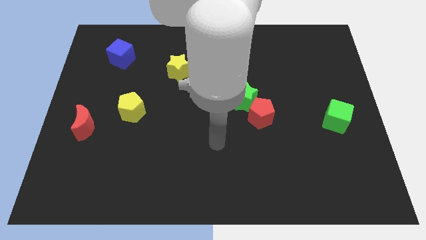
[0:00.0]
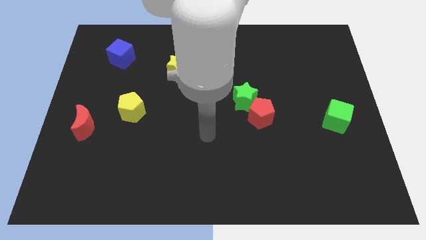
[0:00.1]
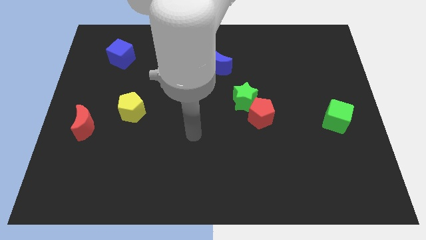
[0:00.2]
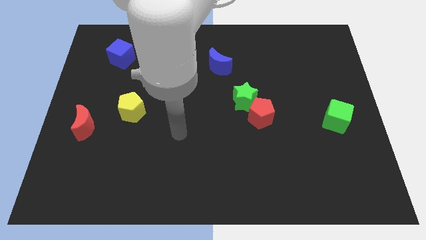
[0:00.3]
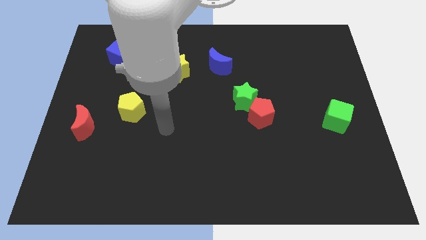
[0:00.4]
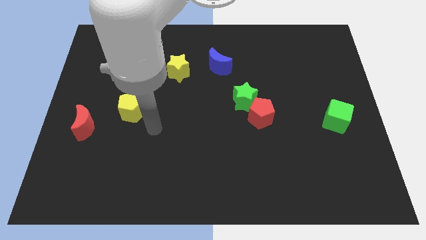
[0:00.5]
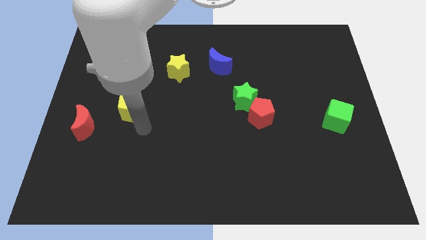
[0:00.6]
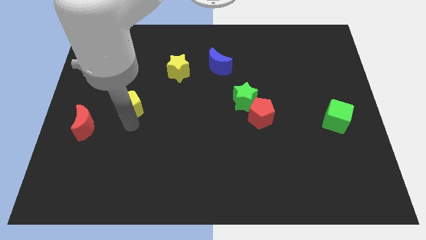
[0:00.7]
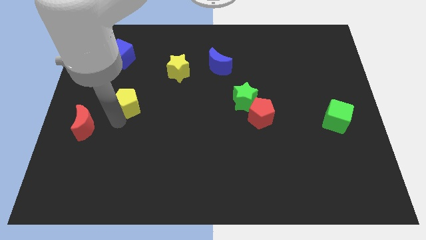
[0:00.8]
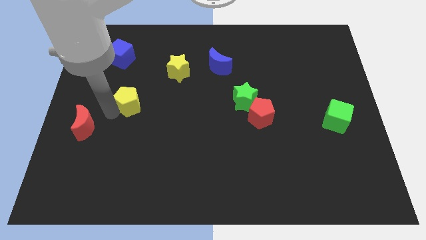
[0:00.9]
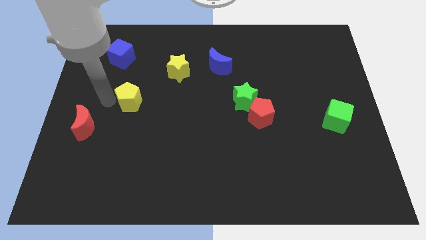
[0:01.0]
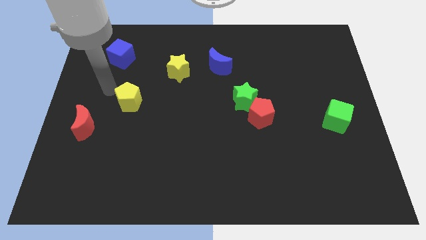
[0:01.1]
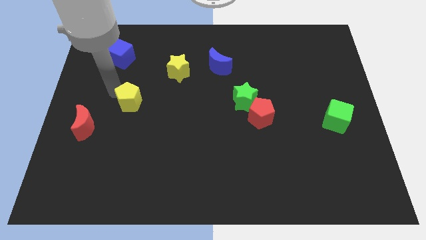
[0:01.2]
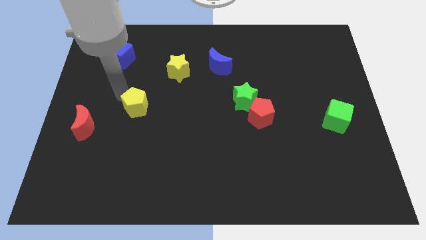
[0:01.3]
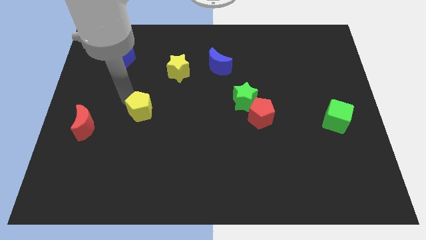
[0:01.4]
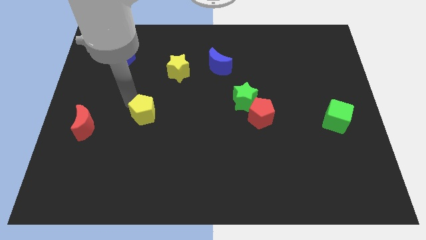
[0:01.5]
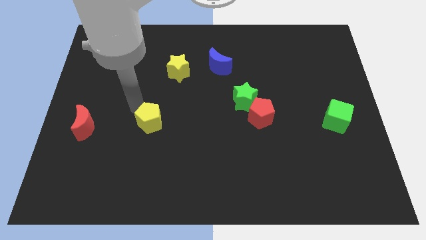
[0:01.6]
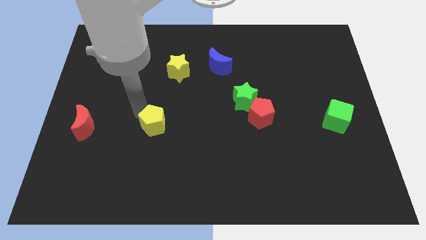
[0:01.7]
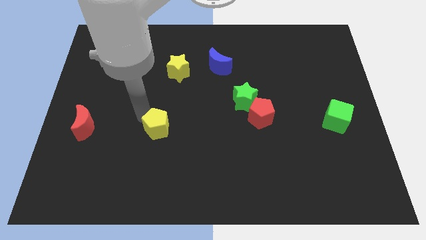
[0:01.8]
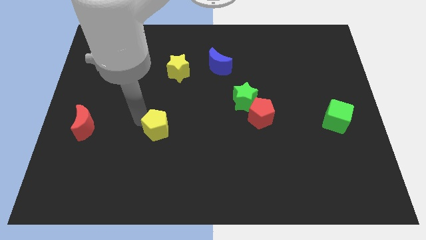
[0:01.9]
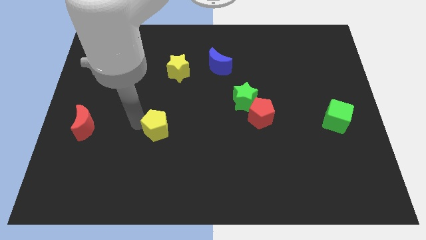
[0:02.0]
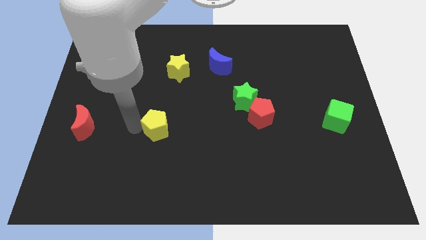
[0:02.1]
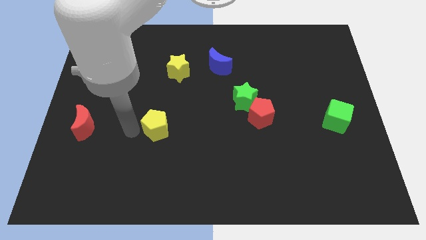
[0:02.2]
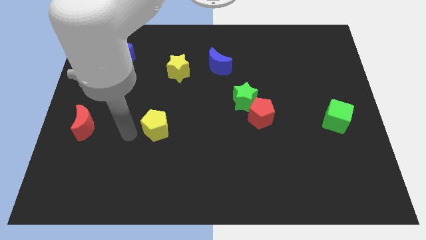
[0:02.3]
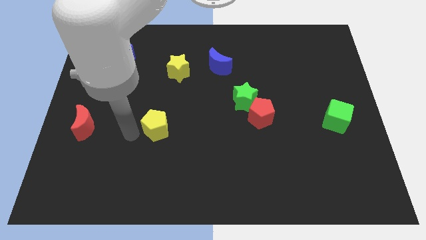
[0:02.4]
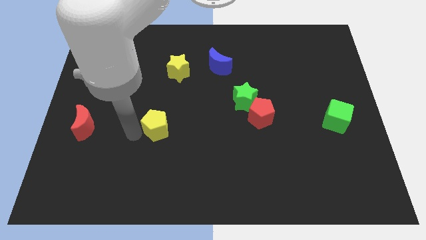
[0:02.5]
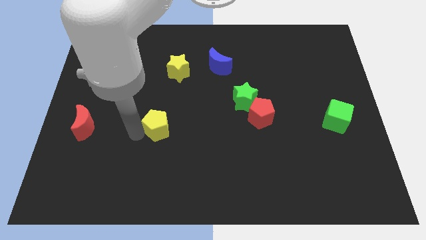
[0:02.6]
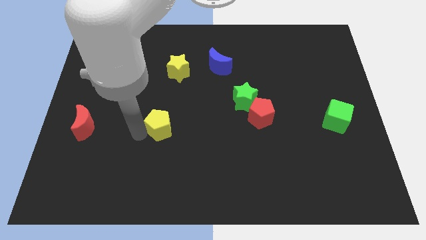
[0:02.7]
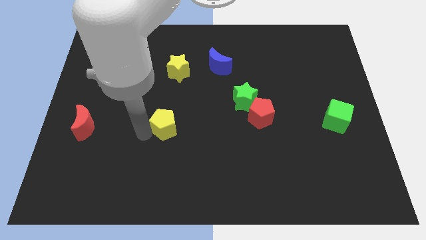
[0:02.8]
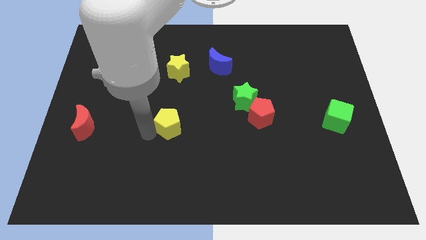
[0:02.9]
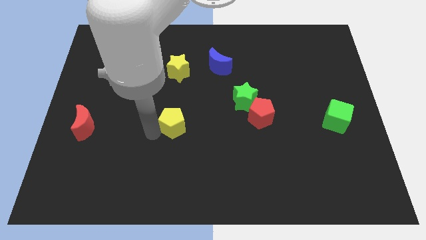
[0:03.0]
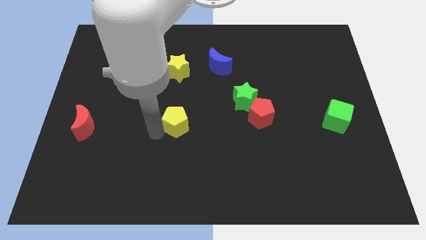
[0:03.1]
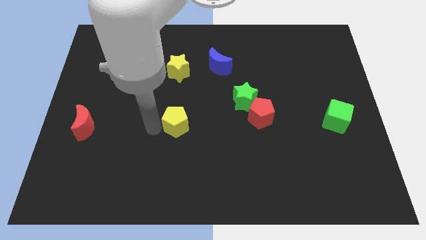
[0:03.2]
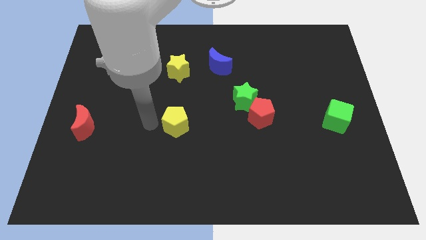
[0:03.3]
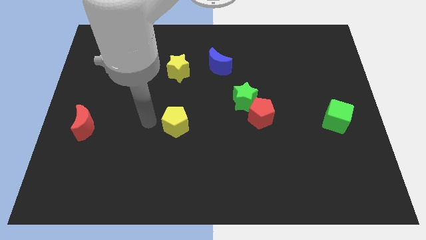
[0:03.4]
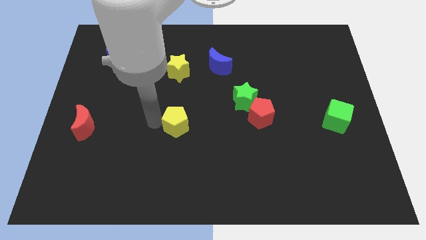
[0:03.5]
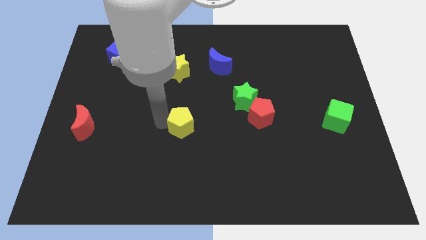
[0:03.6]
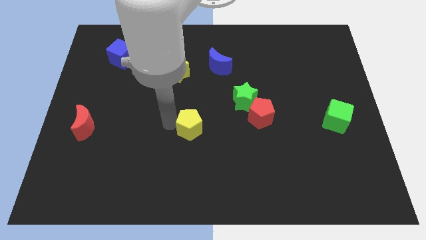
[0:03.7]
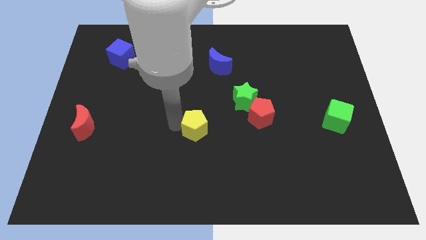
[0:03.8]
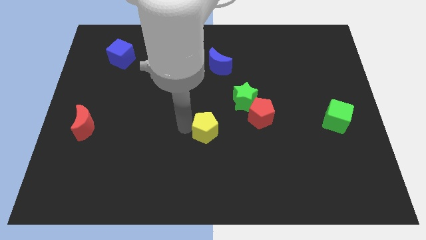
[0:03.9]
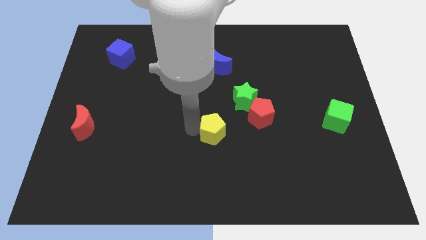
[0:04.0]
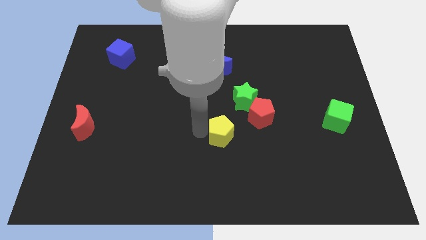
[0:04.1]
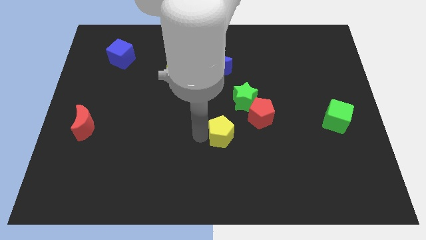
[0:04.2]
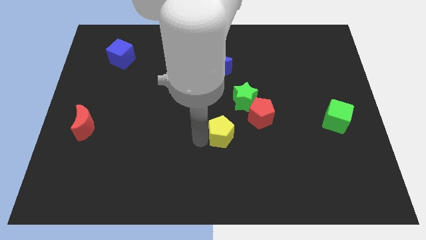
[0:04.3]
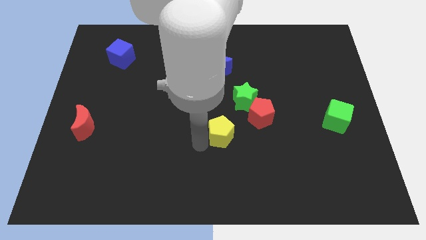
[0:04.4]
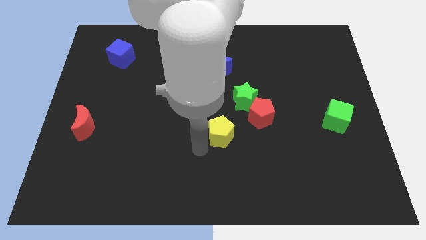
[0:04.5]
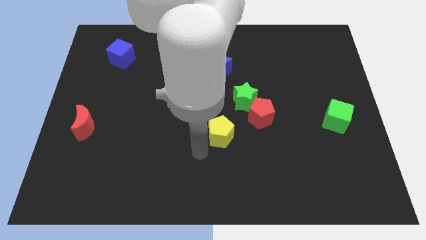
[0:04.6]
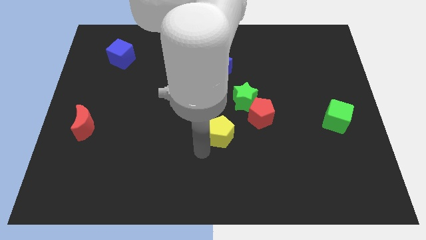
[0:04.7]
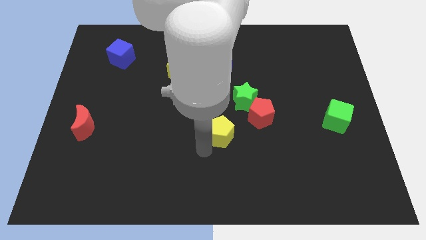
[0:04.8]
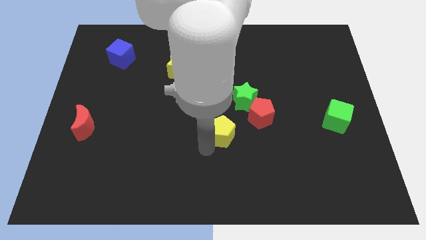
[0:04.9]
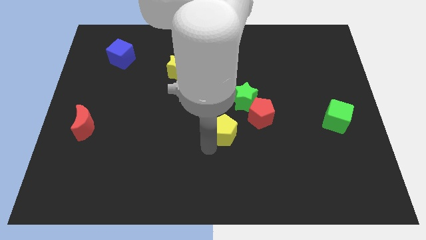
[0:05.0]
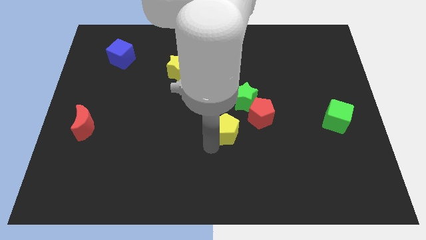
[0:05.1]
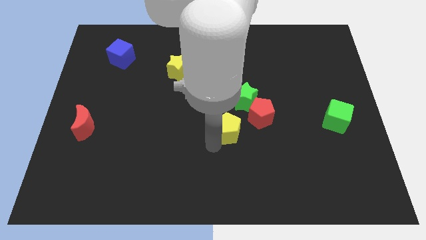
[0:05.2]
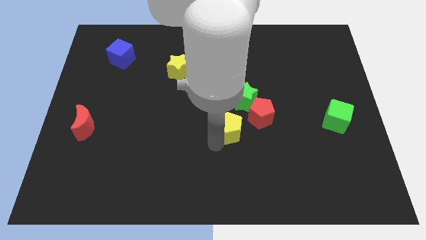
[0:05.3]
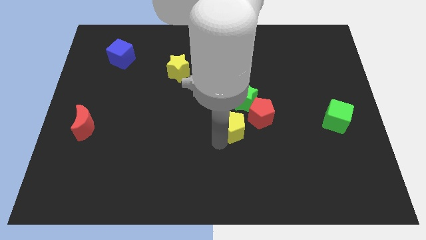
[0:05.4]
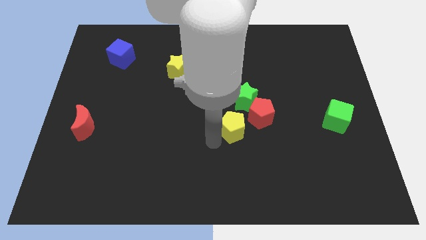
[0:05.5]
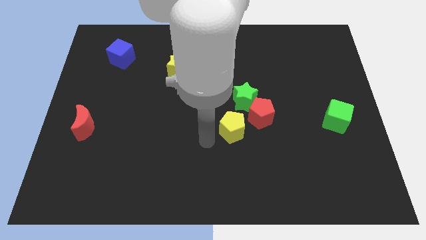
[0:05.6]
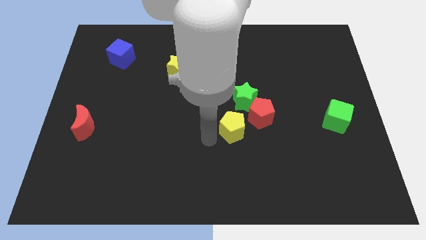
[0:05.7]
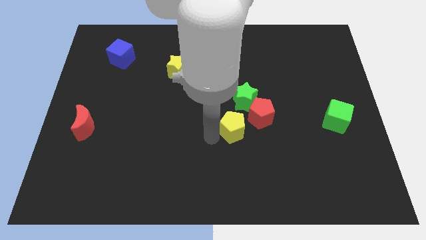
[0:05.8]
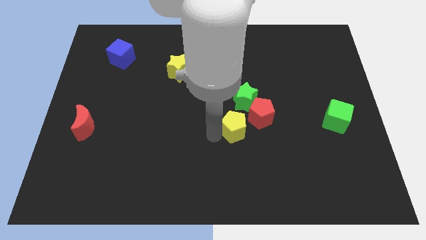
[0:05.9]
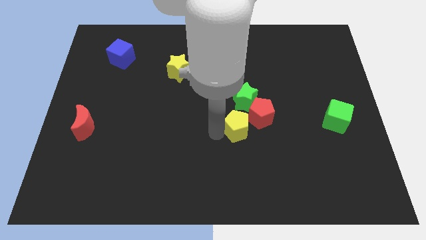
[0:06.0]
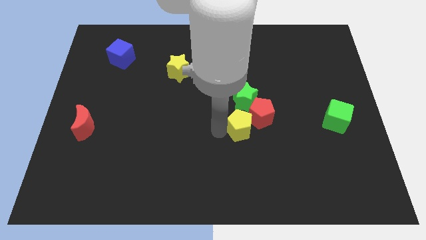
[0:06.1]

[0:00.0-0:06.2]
push the yellow pentagon close to the red pentagon

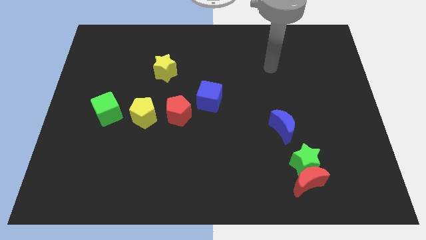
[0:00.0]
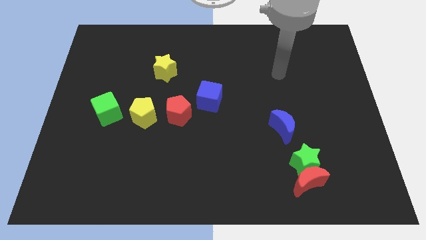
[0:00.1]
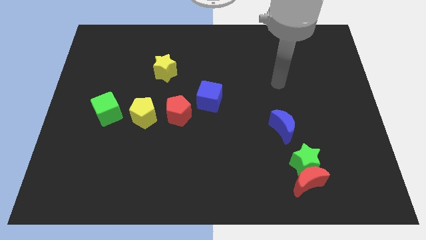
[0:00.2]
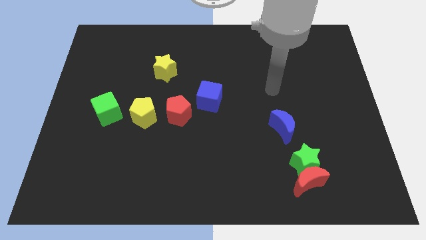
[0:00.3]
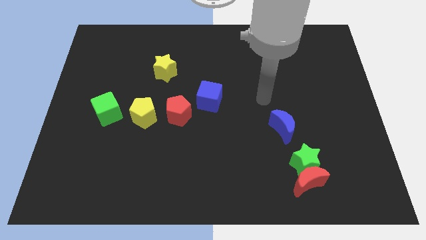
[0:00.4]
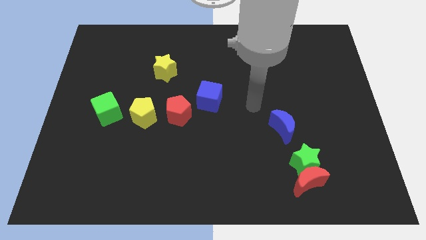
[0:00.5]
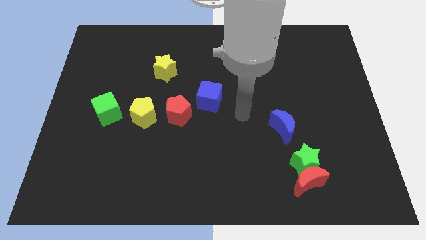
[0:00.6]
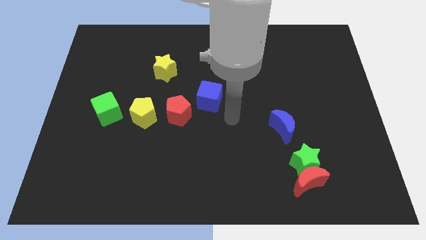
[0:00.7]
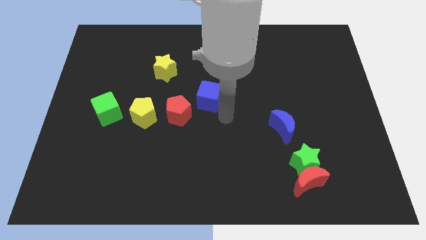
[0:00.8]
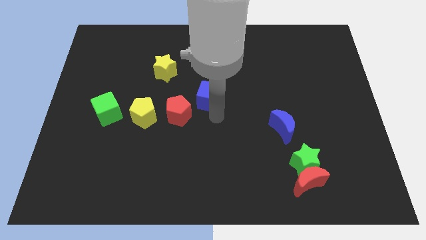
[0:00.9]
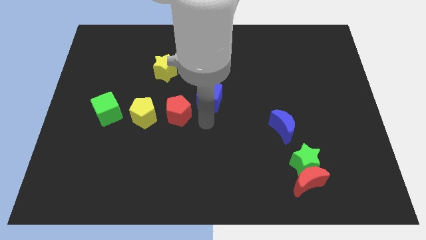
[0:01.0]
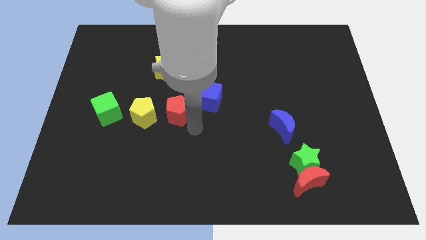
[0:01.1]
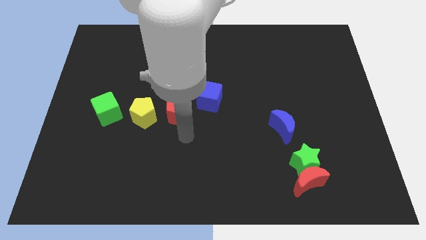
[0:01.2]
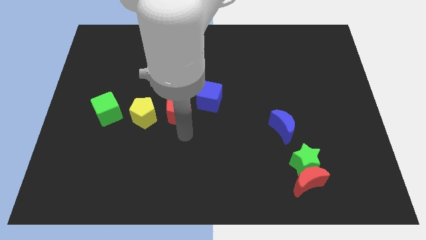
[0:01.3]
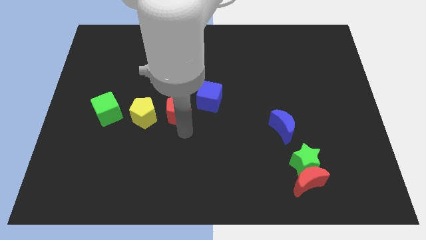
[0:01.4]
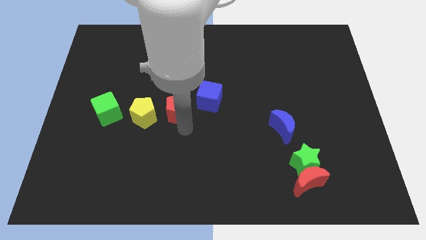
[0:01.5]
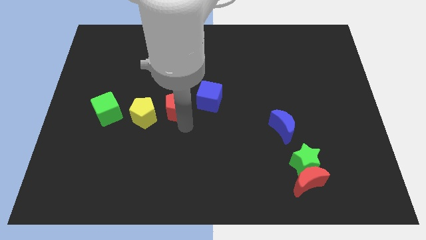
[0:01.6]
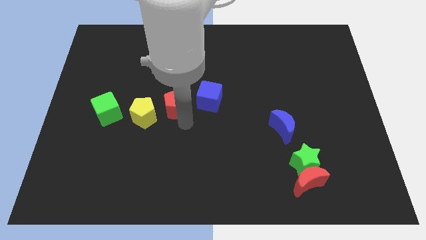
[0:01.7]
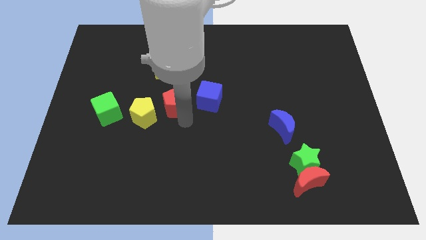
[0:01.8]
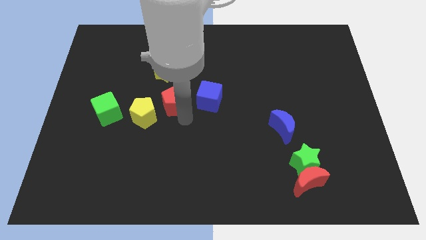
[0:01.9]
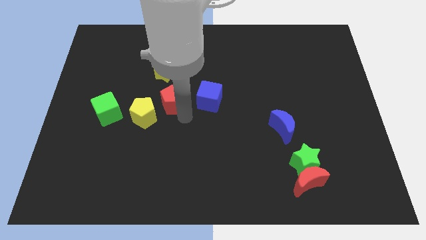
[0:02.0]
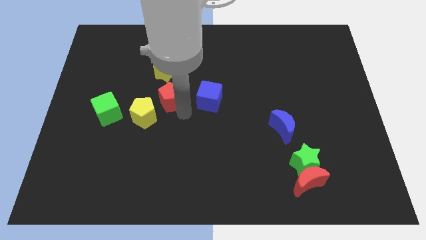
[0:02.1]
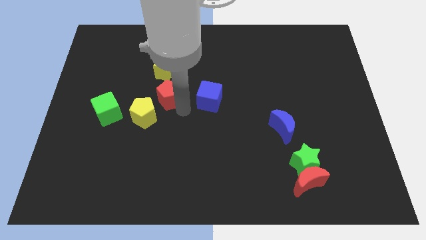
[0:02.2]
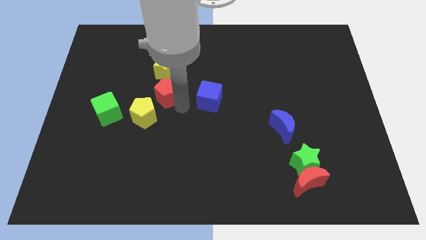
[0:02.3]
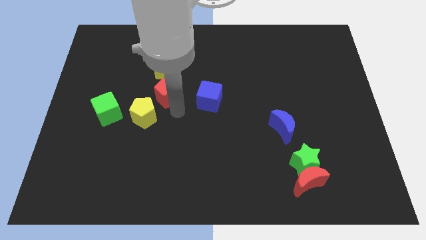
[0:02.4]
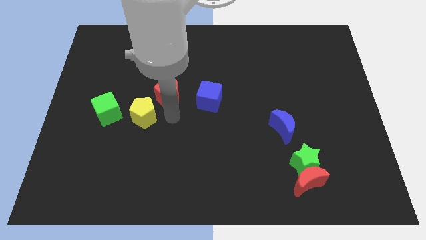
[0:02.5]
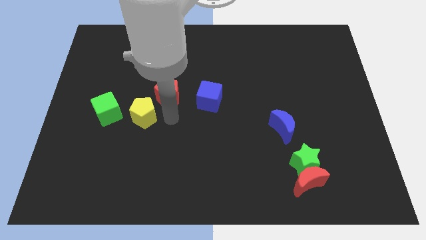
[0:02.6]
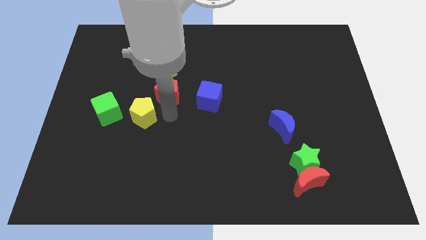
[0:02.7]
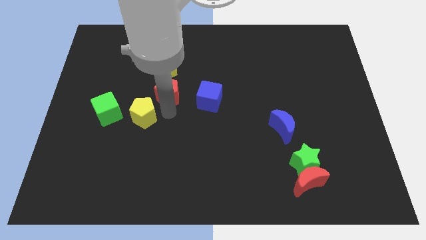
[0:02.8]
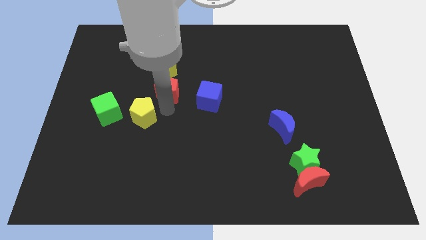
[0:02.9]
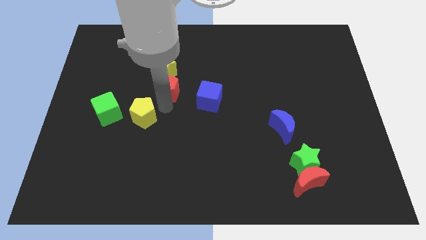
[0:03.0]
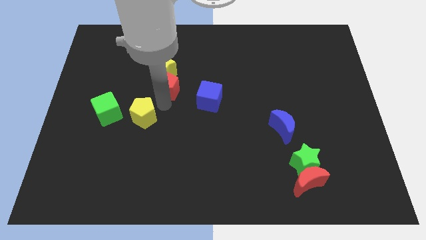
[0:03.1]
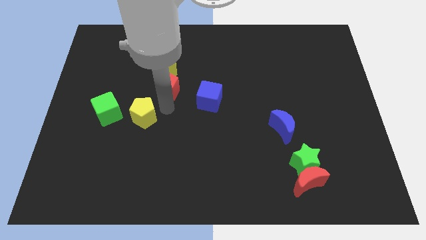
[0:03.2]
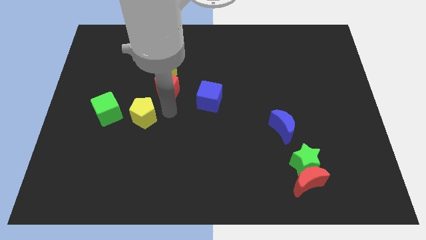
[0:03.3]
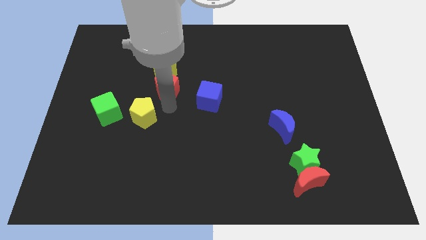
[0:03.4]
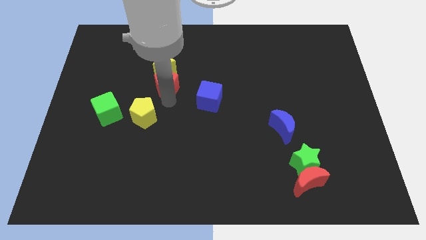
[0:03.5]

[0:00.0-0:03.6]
move the red pentagon close to the yellow star
